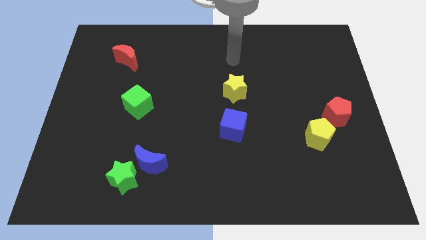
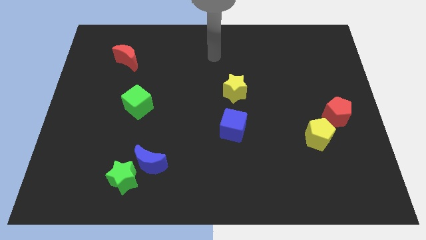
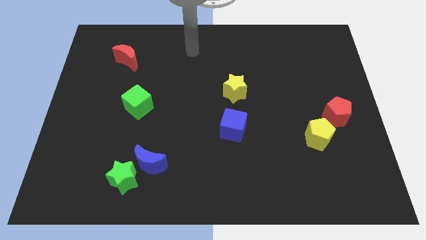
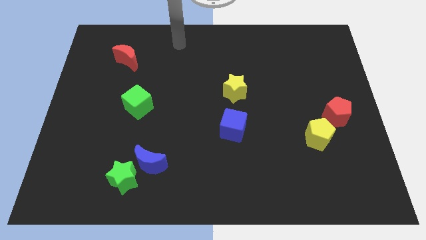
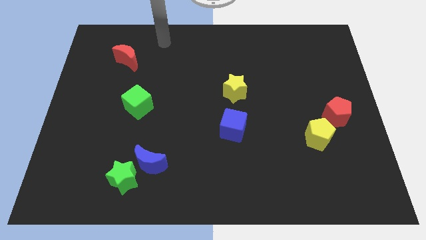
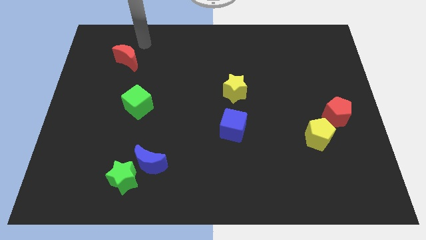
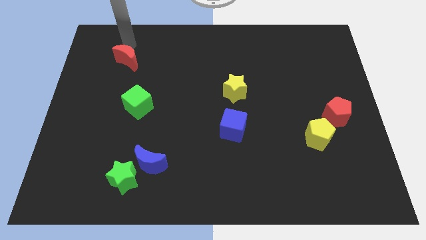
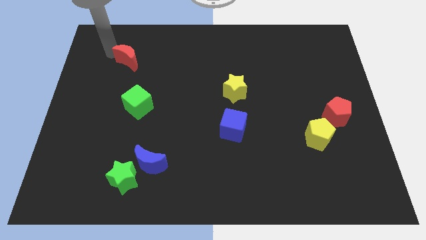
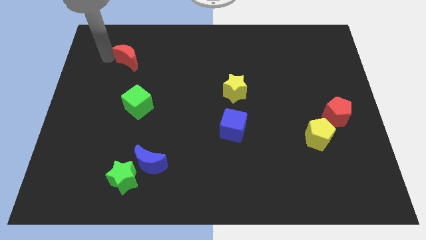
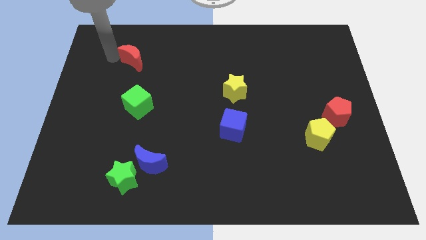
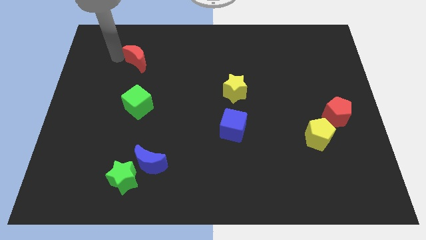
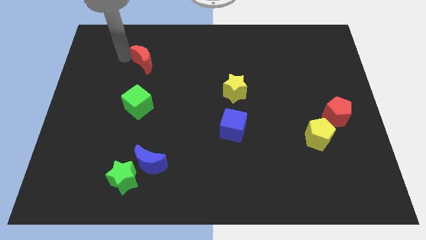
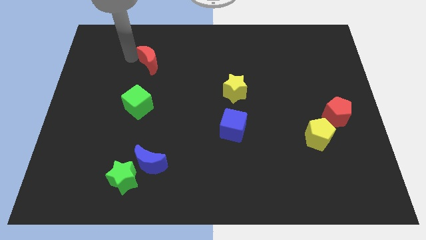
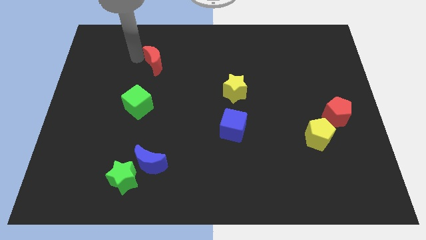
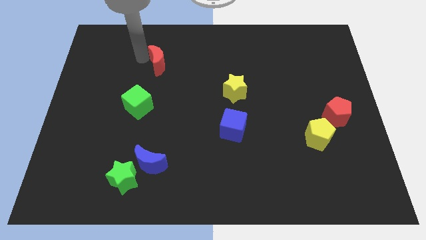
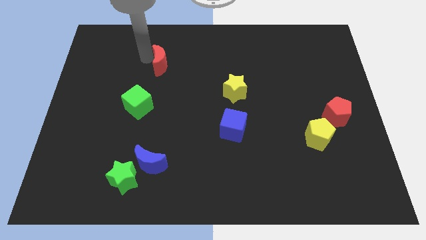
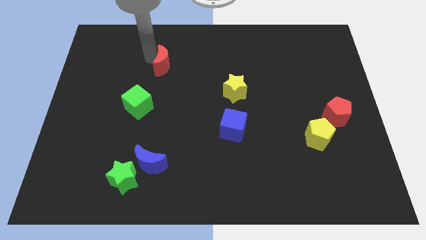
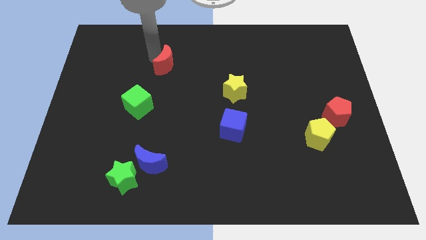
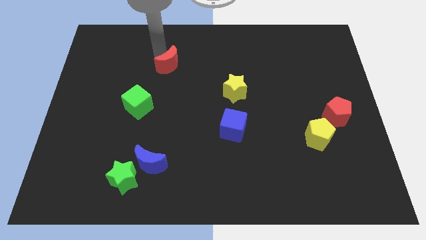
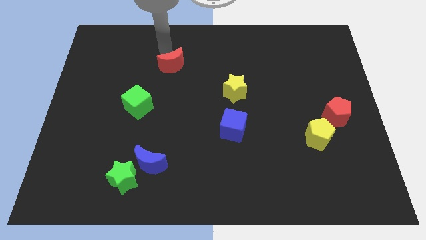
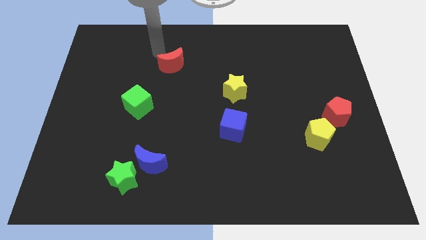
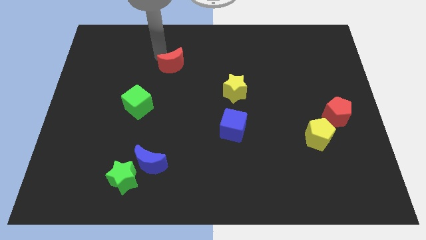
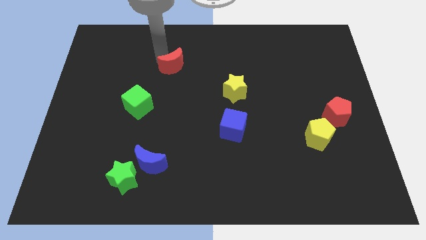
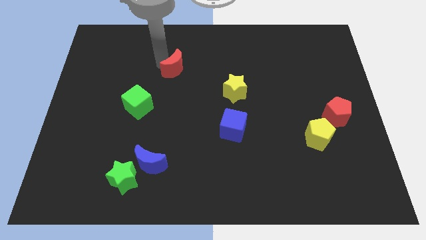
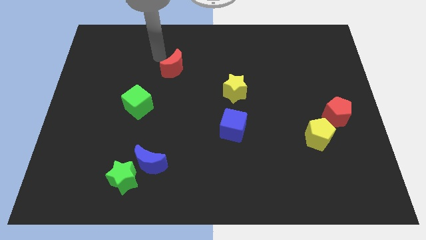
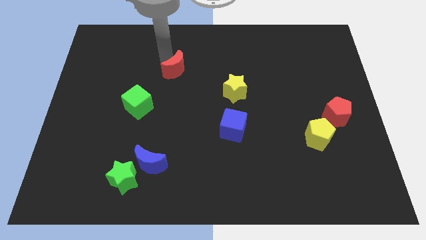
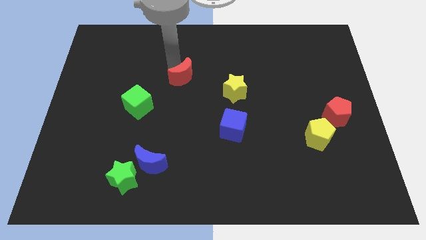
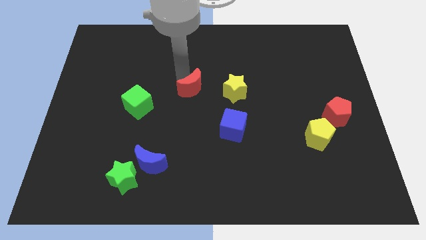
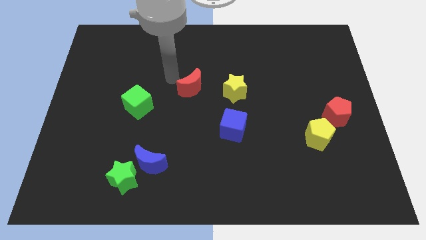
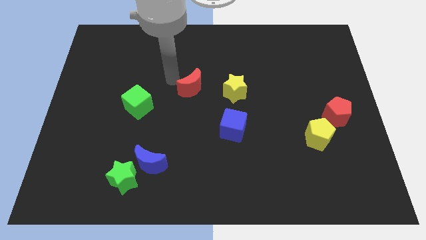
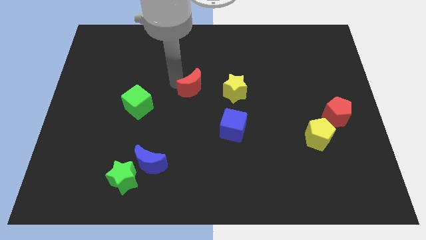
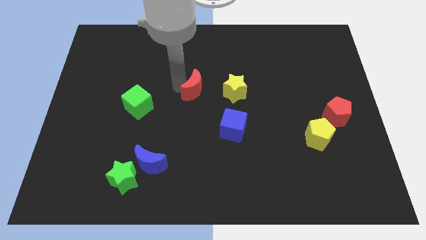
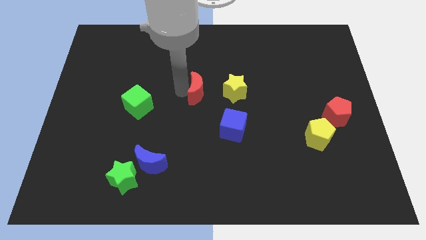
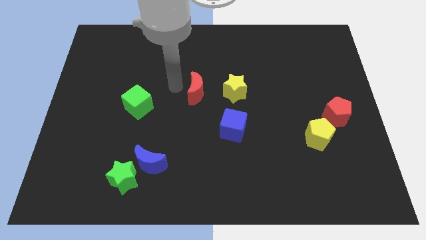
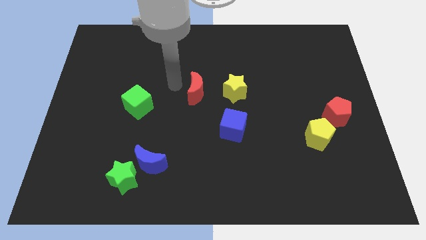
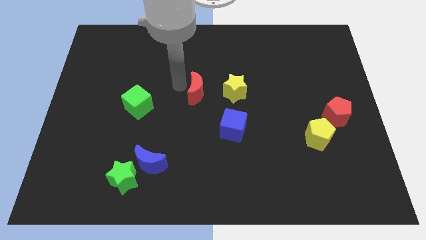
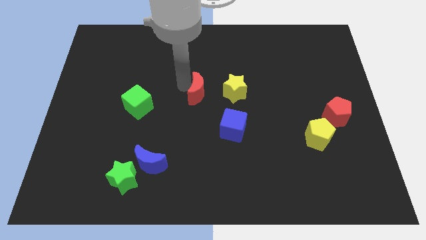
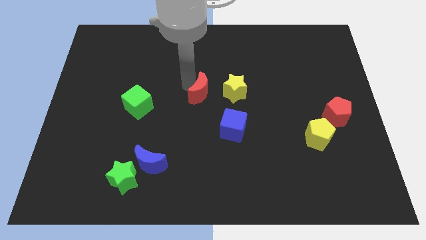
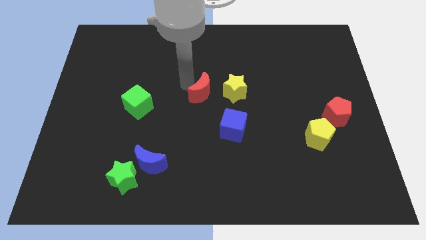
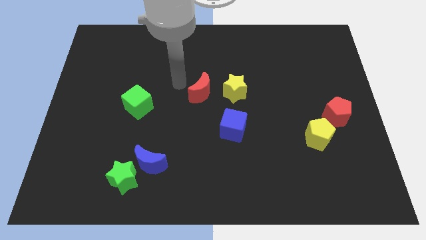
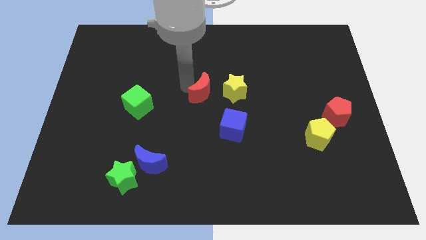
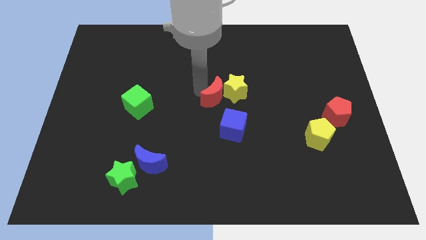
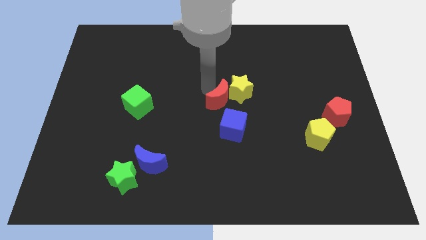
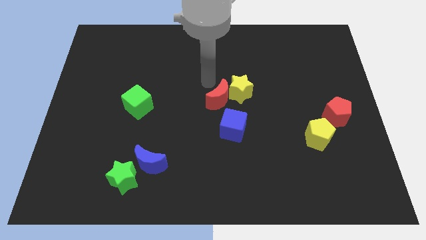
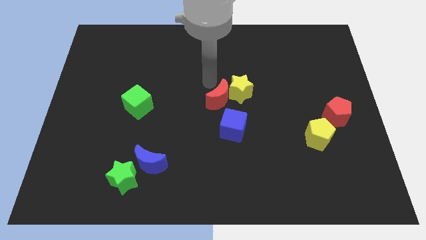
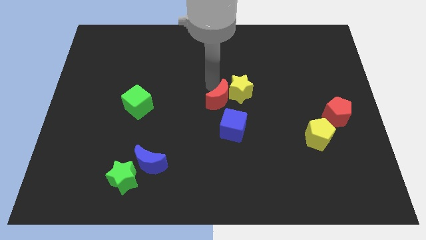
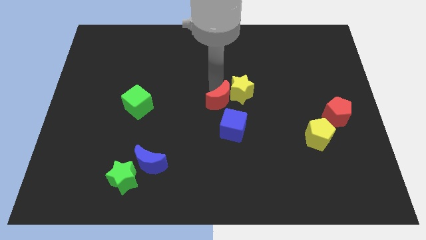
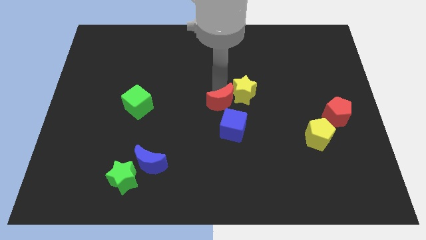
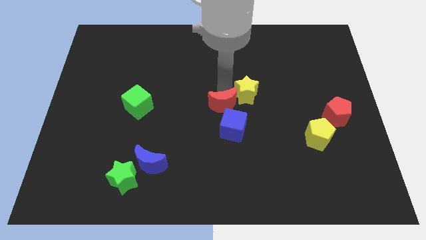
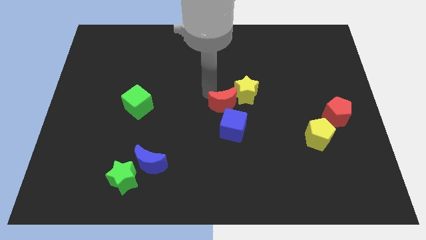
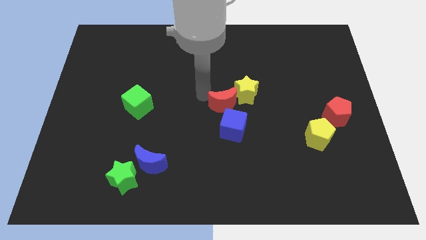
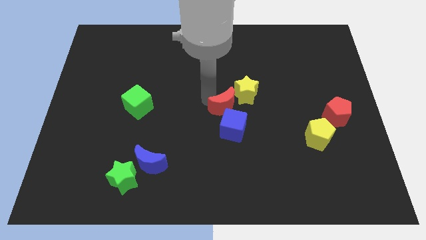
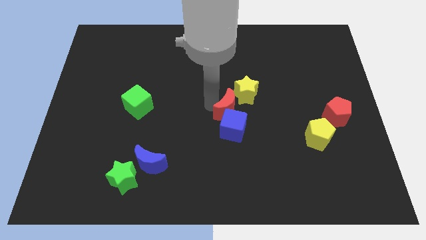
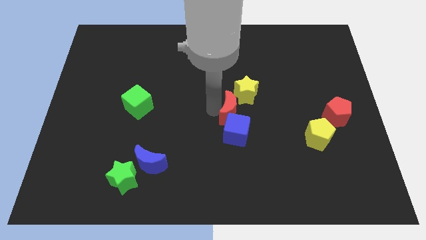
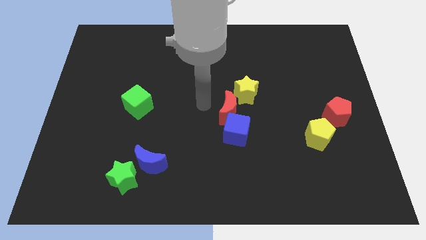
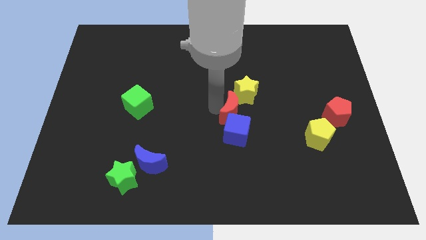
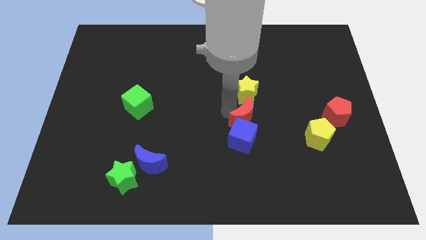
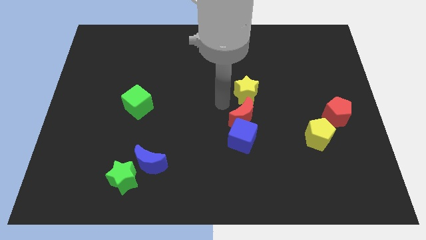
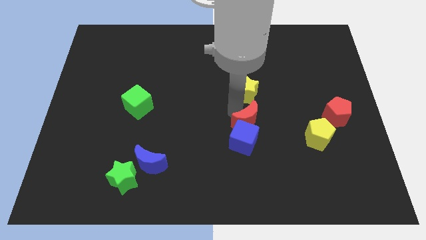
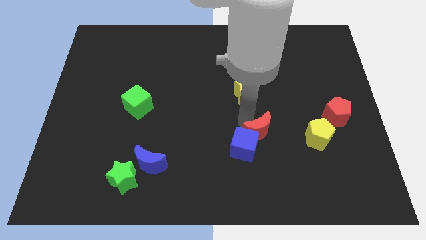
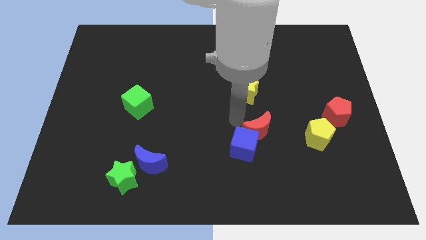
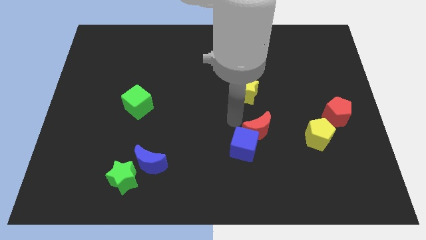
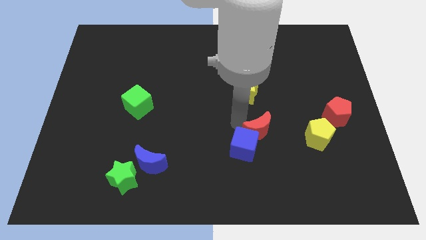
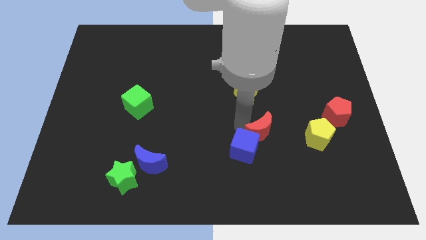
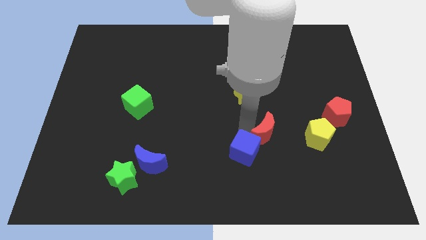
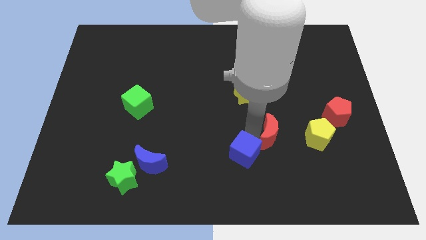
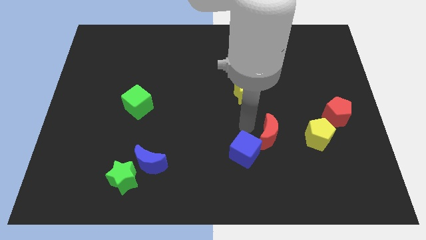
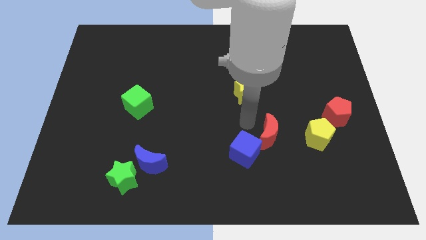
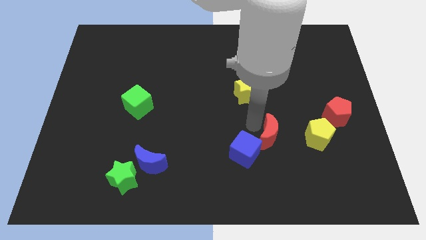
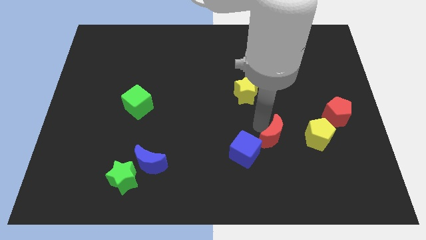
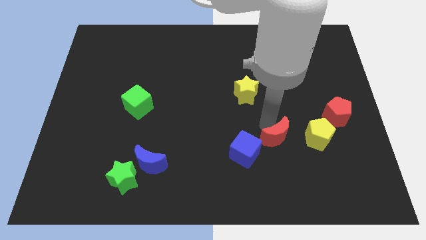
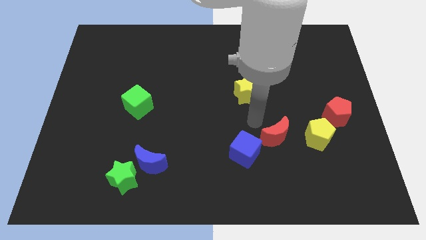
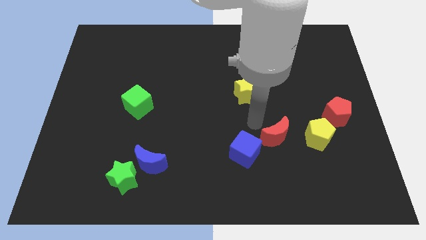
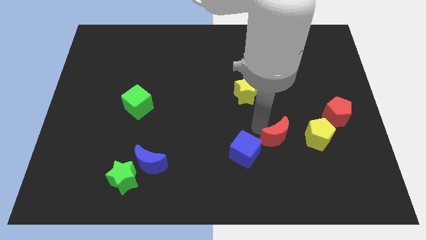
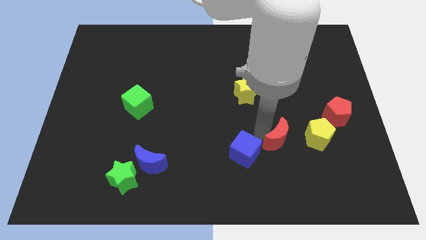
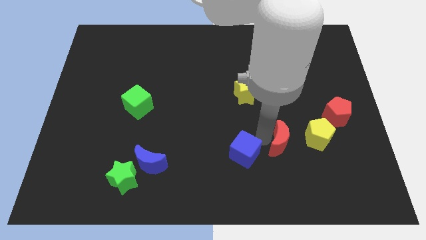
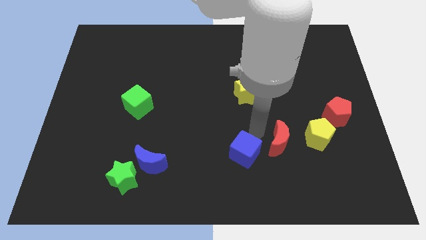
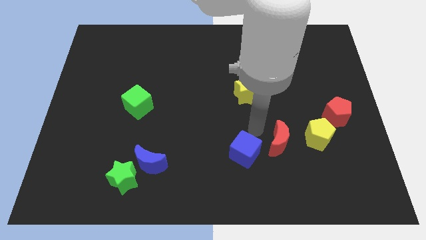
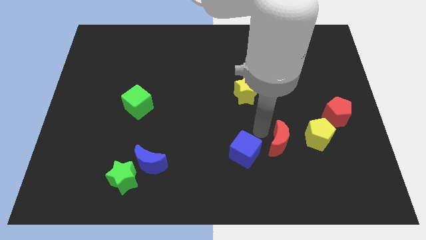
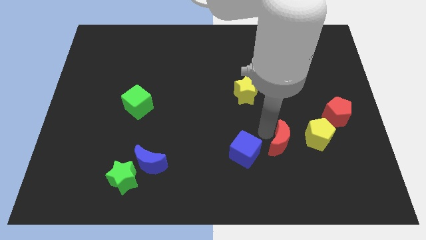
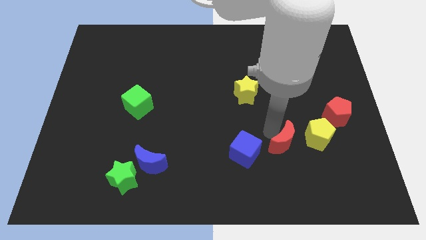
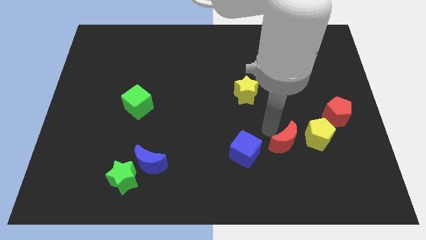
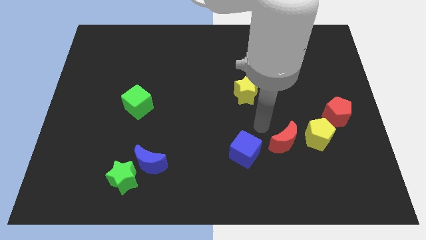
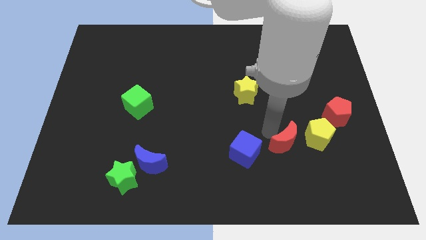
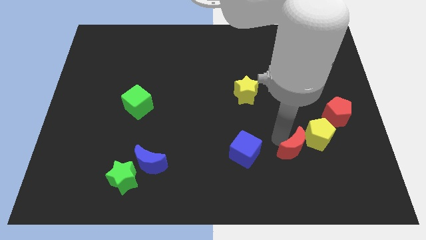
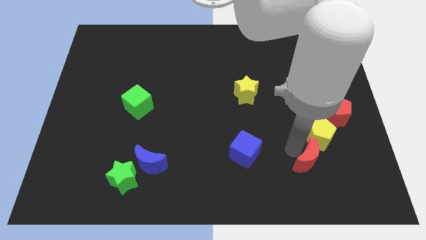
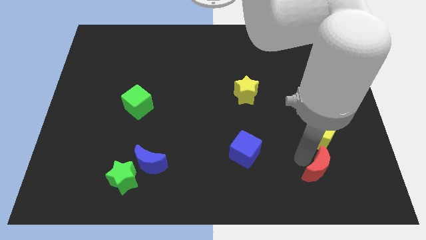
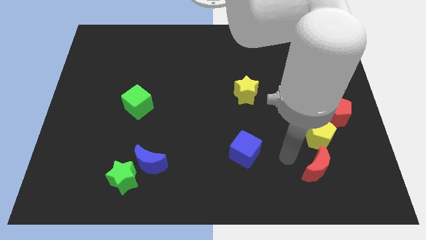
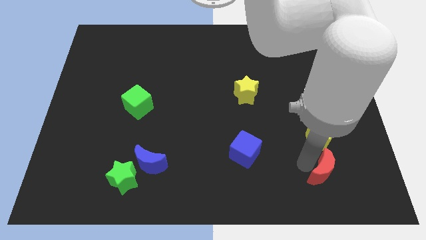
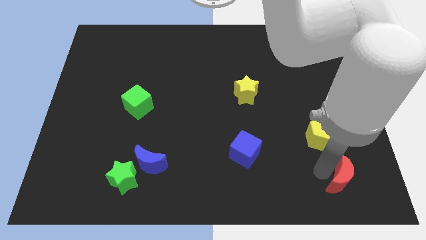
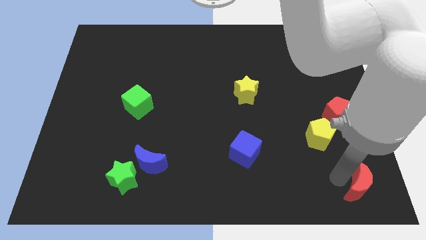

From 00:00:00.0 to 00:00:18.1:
move the red moon to the bottom right corner
